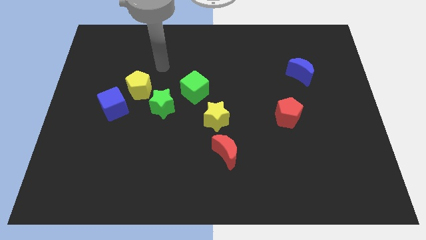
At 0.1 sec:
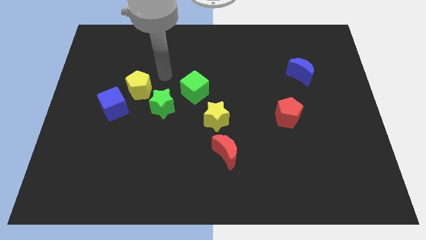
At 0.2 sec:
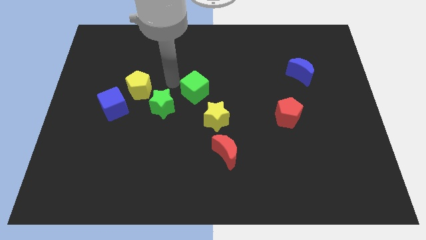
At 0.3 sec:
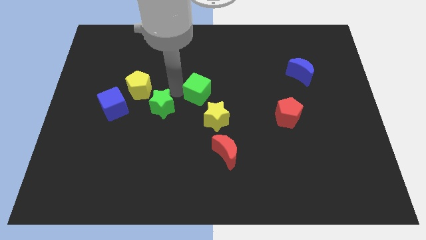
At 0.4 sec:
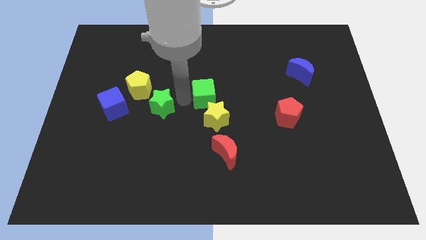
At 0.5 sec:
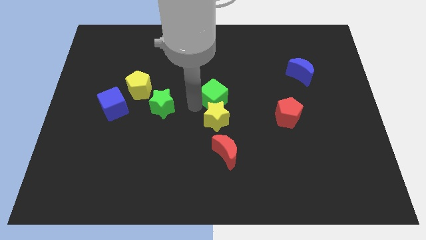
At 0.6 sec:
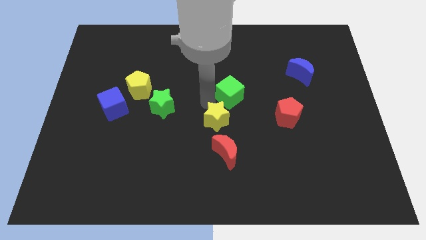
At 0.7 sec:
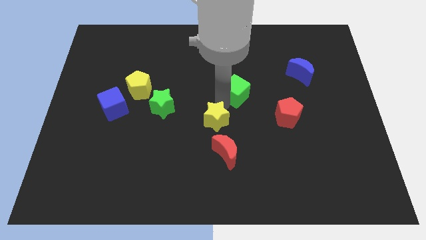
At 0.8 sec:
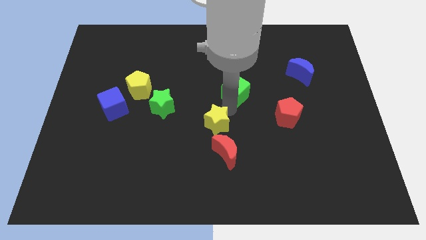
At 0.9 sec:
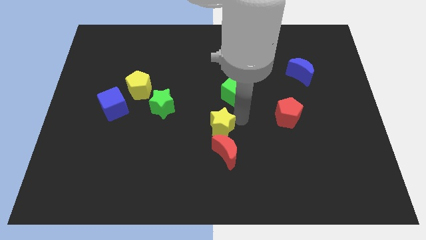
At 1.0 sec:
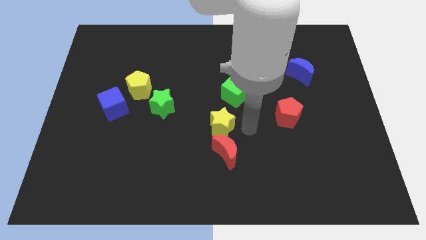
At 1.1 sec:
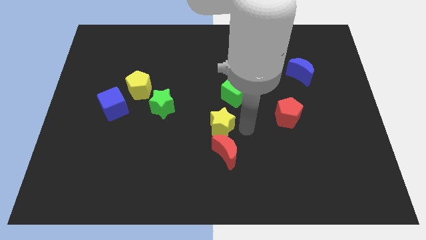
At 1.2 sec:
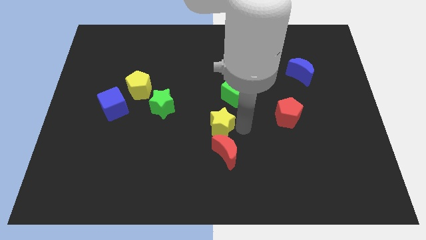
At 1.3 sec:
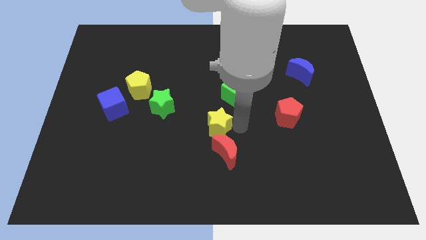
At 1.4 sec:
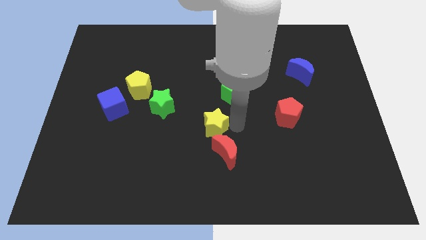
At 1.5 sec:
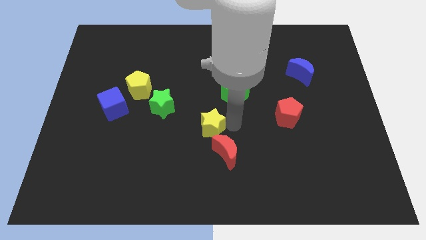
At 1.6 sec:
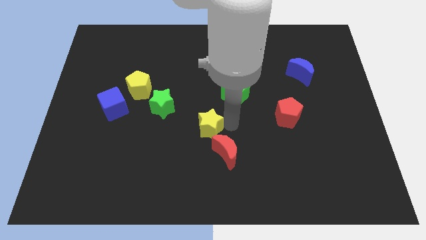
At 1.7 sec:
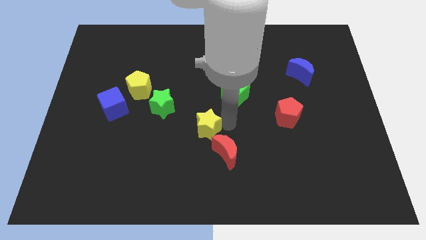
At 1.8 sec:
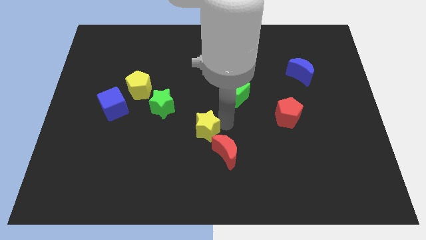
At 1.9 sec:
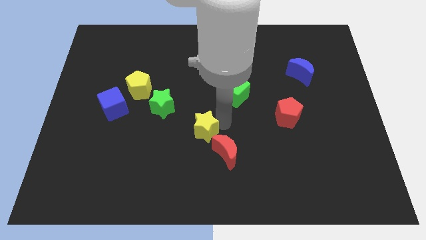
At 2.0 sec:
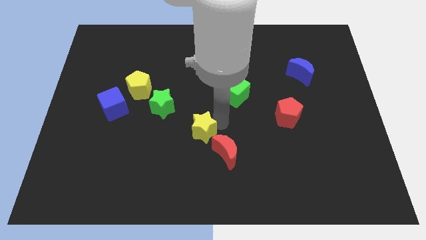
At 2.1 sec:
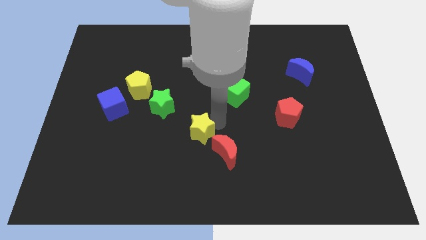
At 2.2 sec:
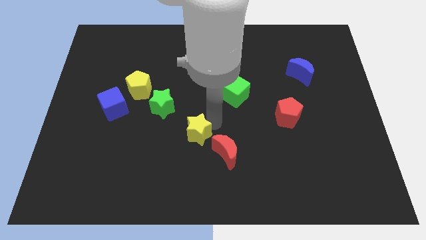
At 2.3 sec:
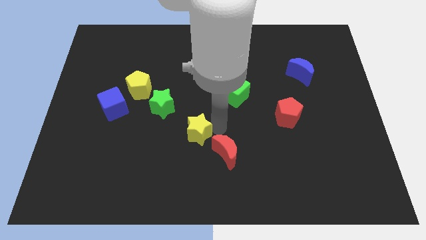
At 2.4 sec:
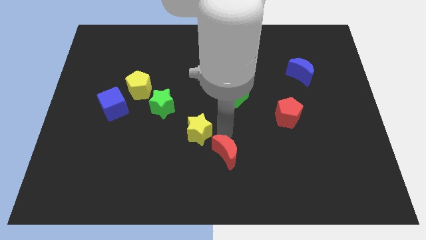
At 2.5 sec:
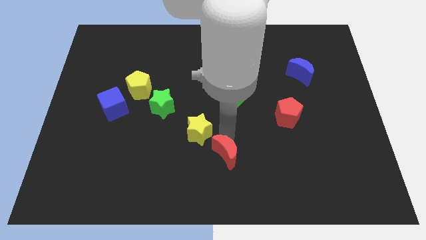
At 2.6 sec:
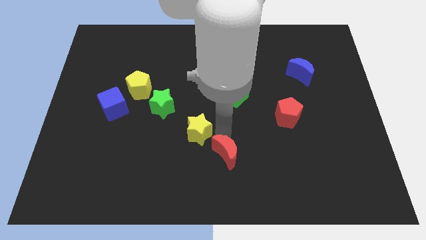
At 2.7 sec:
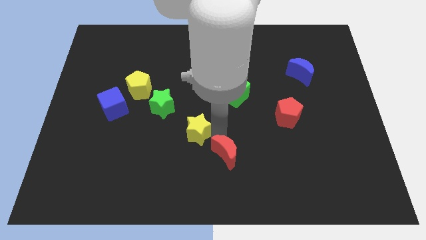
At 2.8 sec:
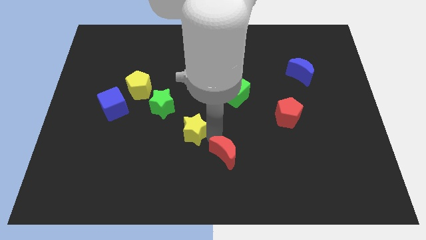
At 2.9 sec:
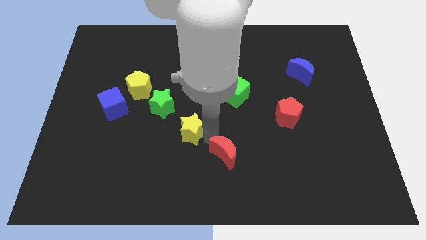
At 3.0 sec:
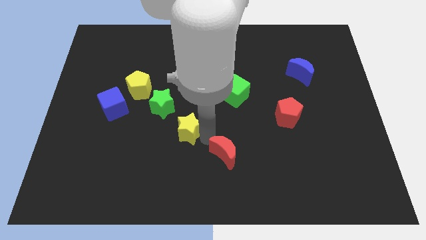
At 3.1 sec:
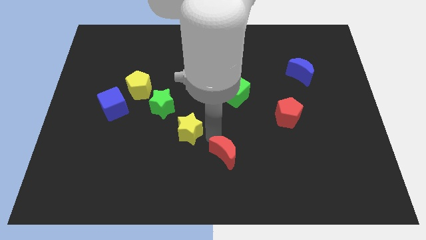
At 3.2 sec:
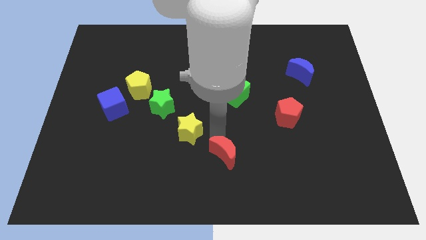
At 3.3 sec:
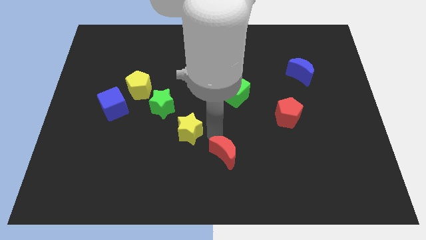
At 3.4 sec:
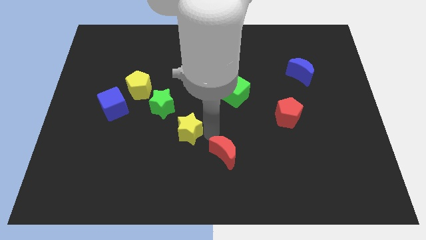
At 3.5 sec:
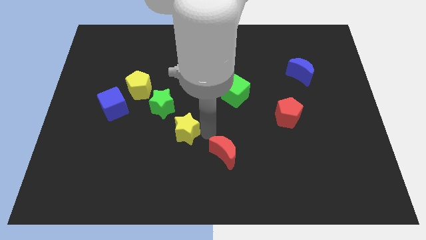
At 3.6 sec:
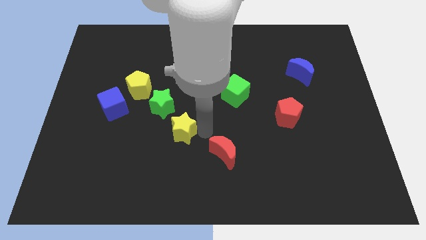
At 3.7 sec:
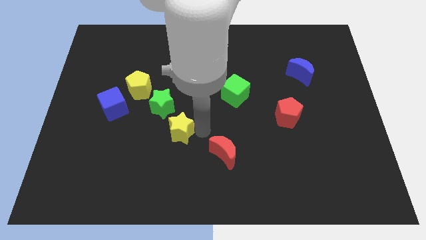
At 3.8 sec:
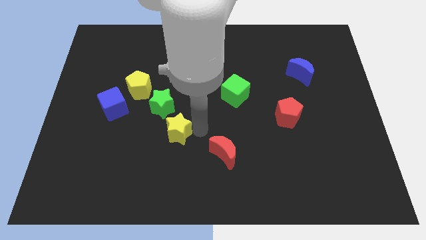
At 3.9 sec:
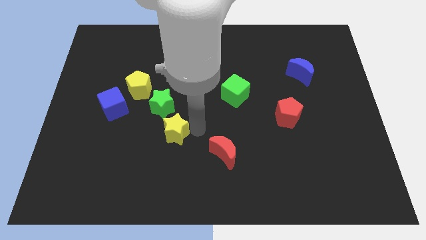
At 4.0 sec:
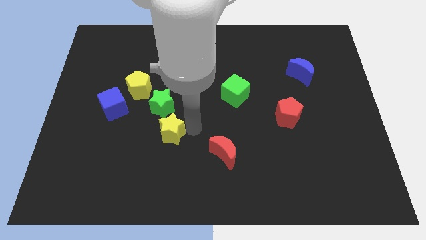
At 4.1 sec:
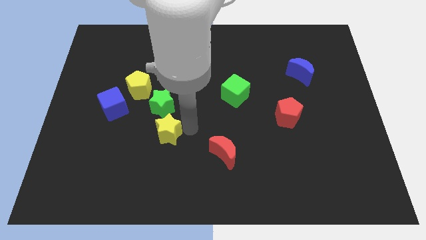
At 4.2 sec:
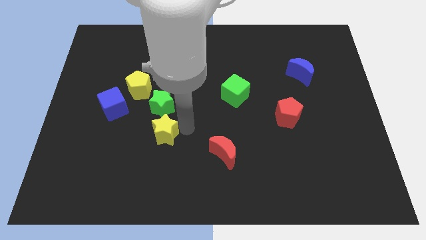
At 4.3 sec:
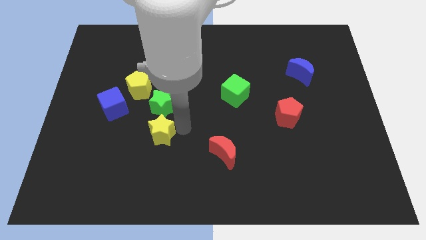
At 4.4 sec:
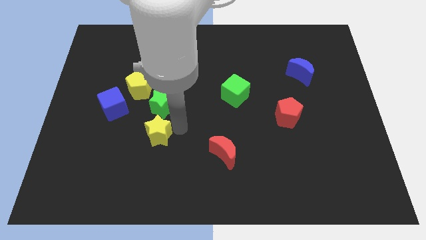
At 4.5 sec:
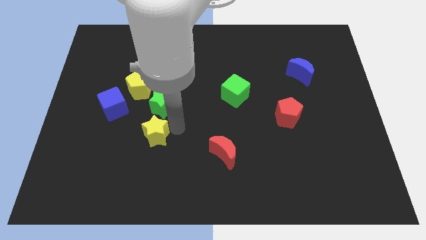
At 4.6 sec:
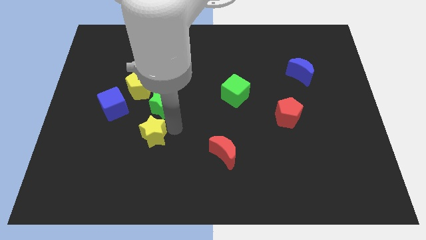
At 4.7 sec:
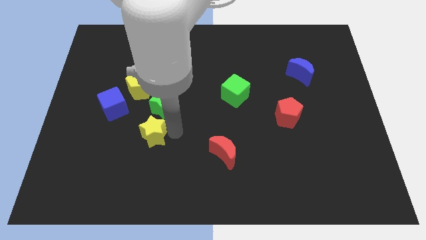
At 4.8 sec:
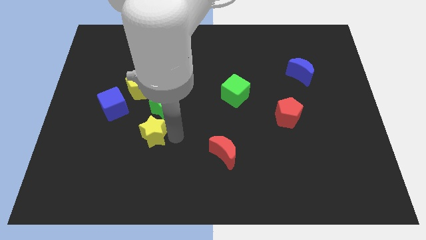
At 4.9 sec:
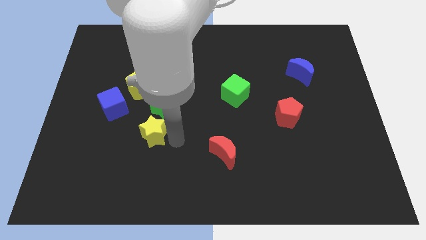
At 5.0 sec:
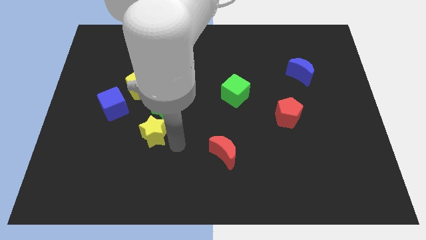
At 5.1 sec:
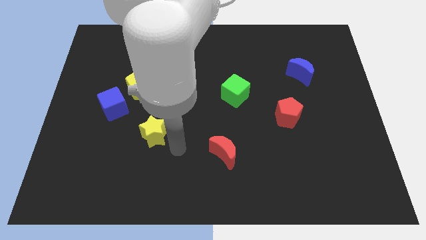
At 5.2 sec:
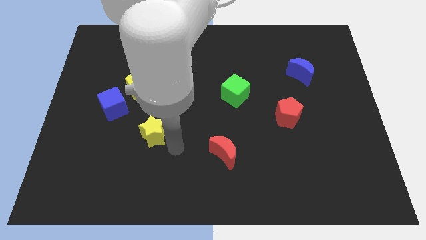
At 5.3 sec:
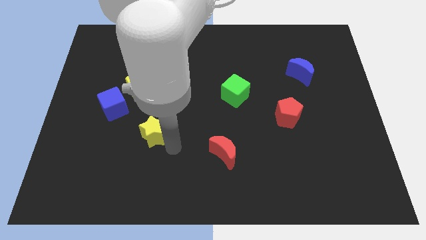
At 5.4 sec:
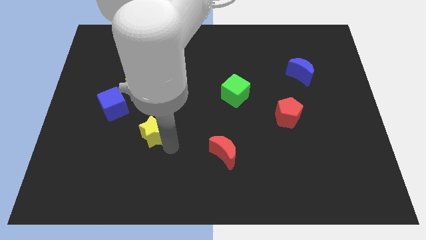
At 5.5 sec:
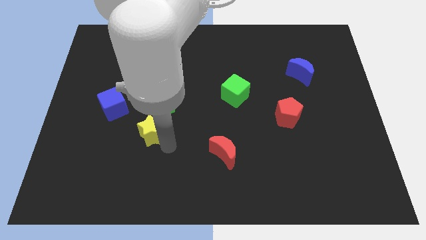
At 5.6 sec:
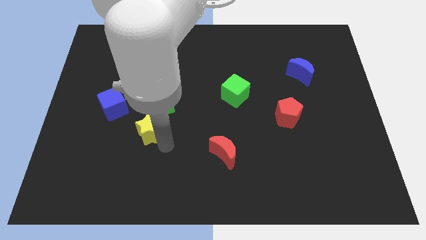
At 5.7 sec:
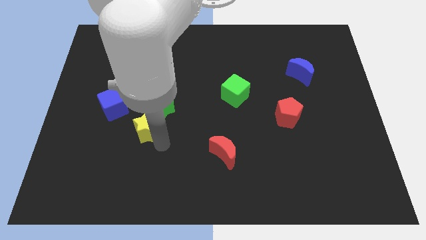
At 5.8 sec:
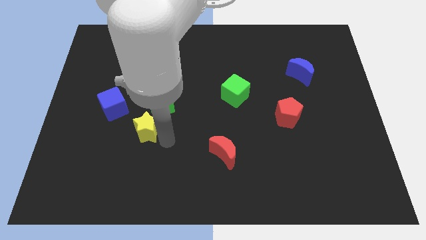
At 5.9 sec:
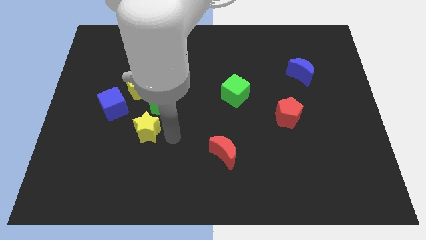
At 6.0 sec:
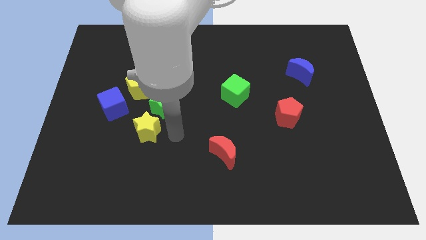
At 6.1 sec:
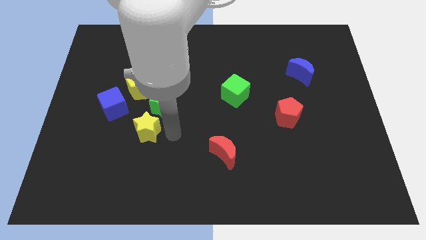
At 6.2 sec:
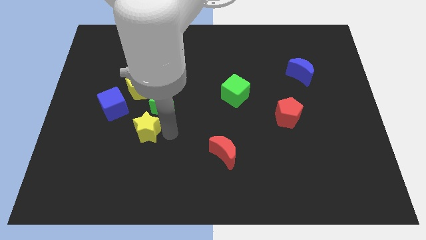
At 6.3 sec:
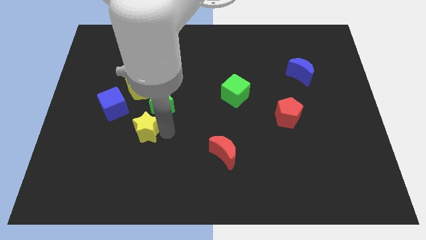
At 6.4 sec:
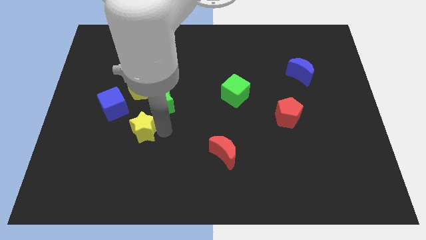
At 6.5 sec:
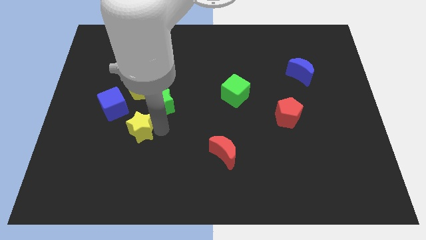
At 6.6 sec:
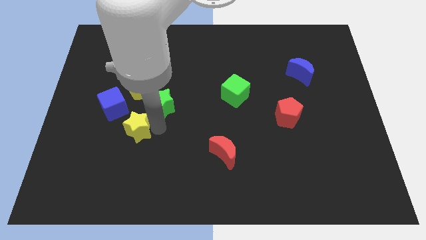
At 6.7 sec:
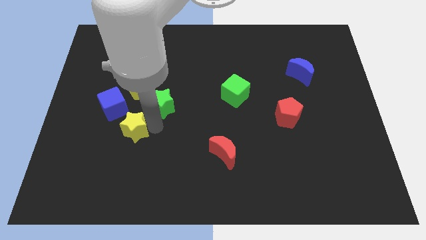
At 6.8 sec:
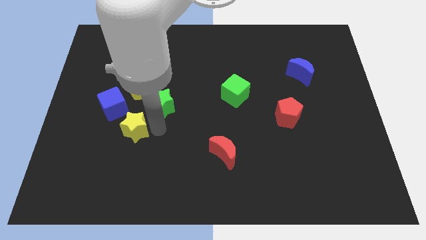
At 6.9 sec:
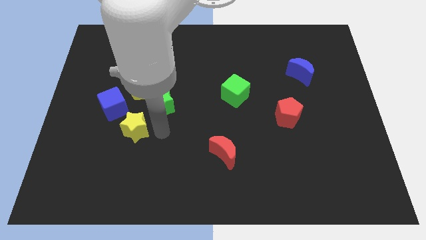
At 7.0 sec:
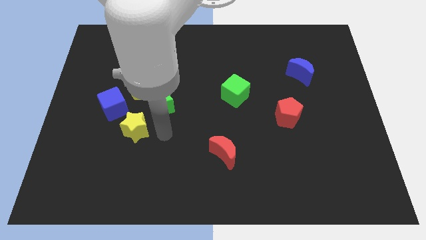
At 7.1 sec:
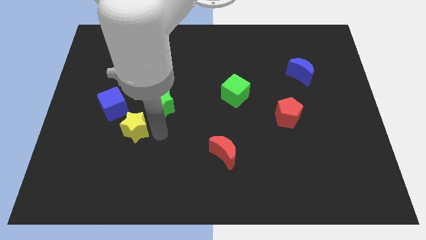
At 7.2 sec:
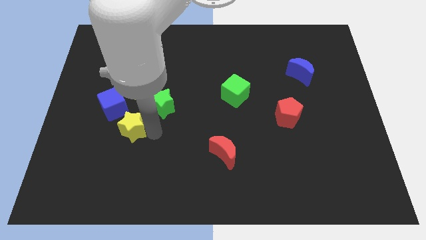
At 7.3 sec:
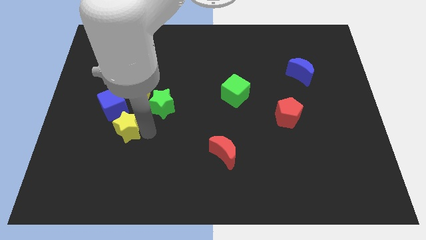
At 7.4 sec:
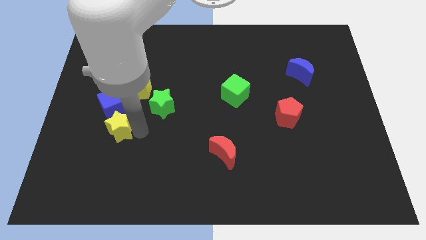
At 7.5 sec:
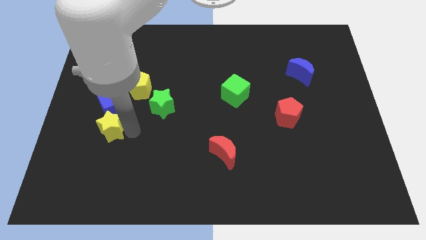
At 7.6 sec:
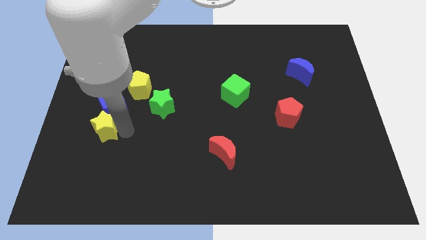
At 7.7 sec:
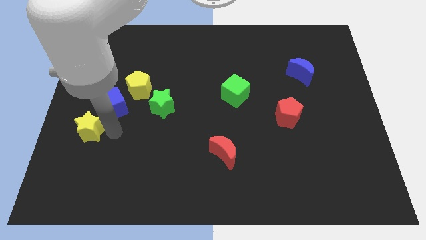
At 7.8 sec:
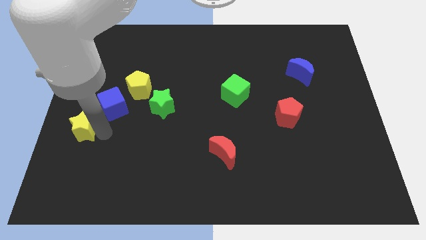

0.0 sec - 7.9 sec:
move the yellow star to the left side
